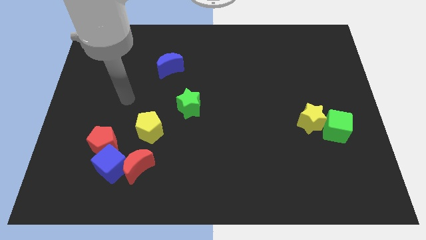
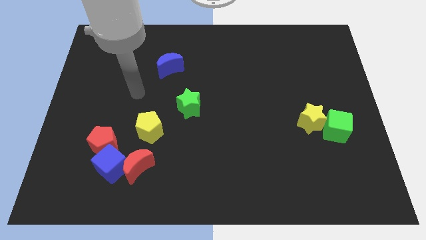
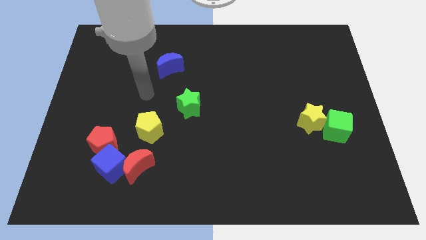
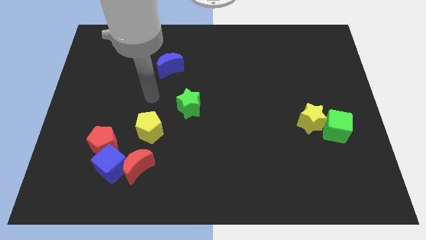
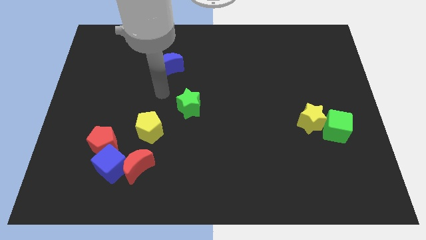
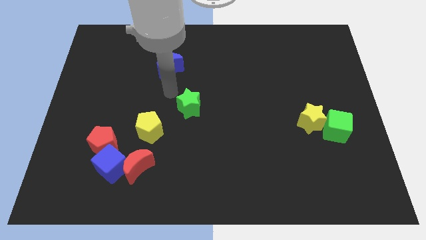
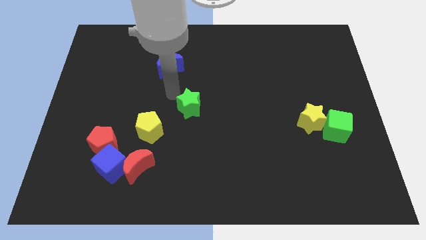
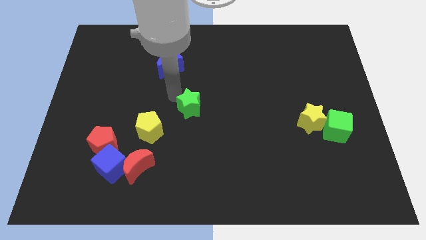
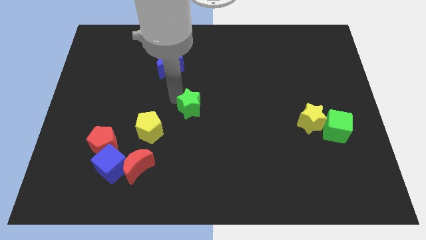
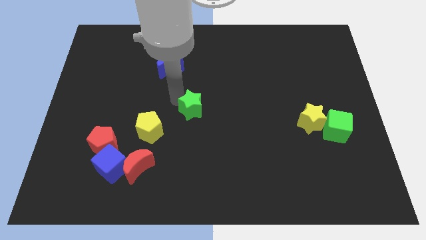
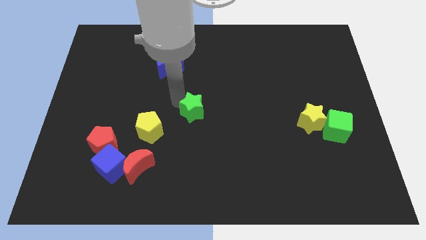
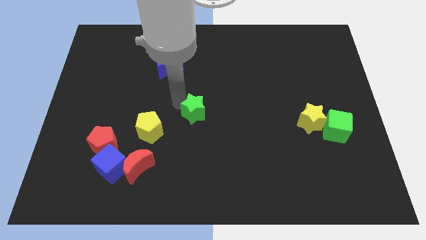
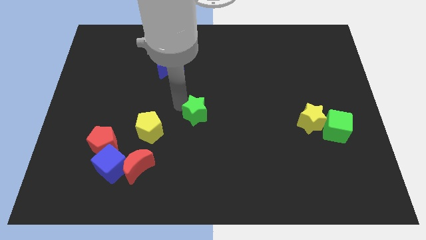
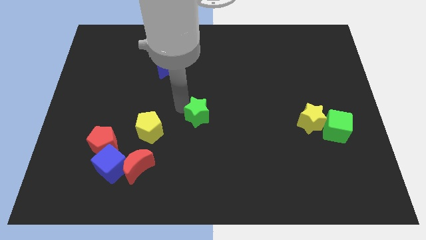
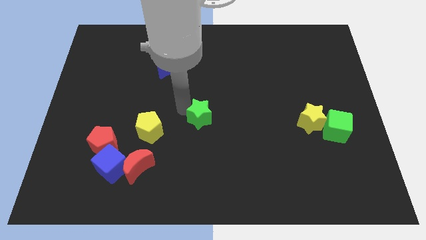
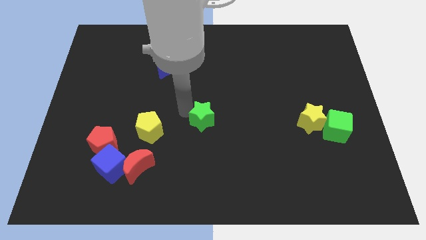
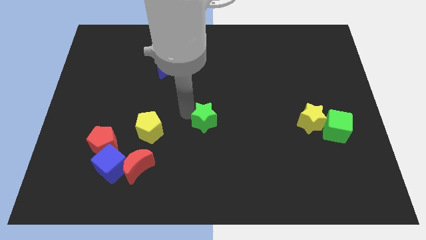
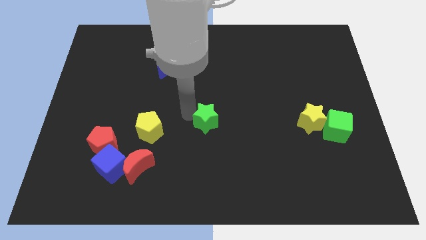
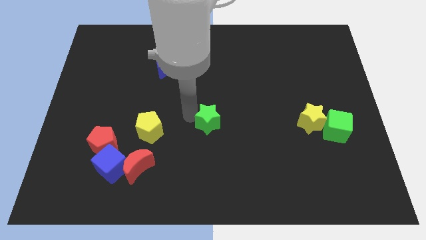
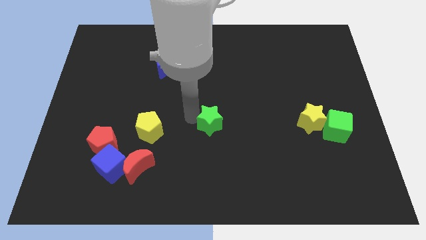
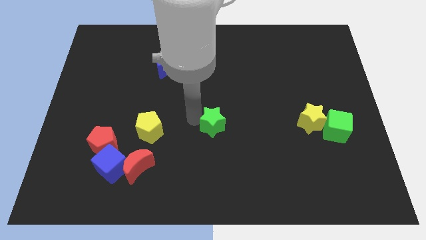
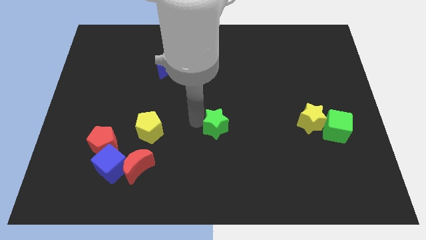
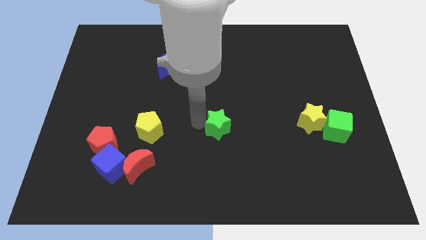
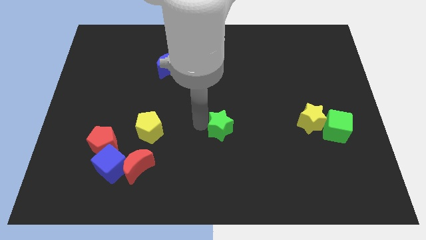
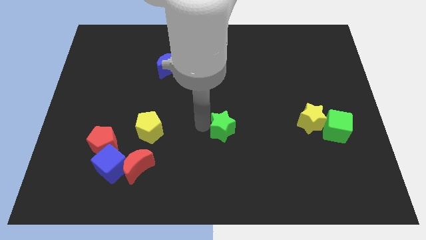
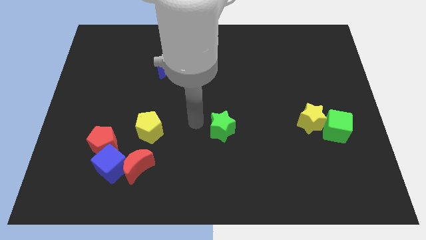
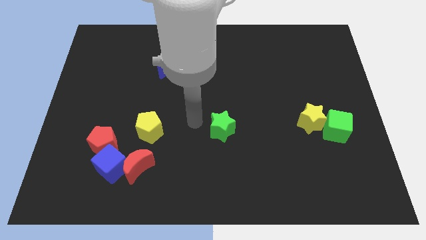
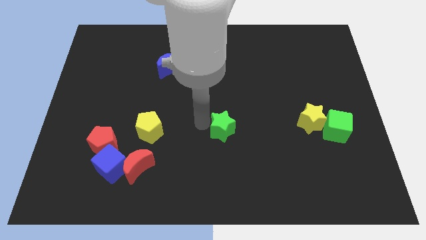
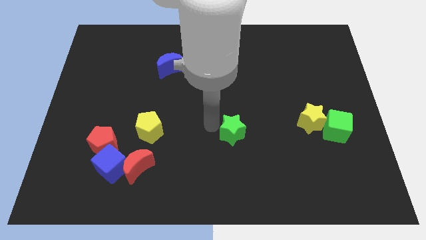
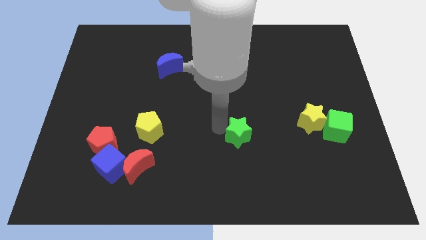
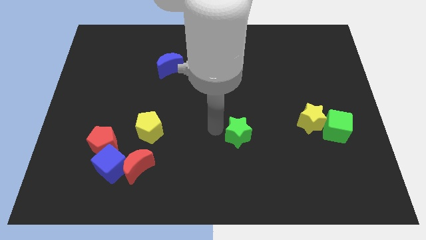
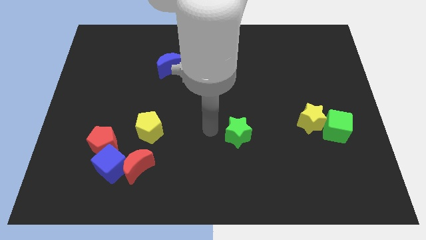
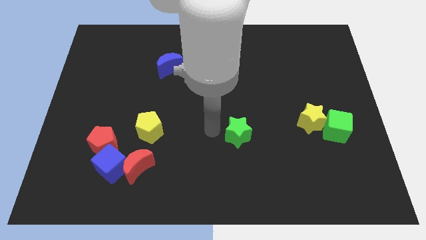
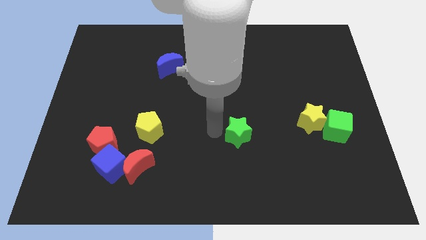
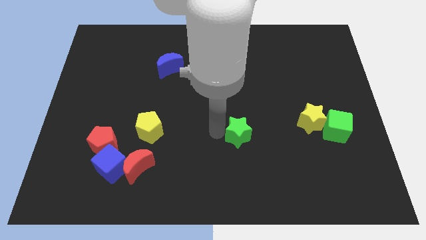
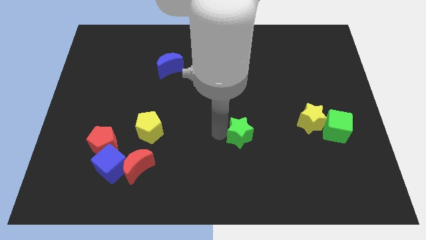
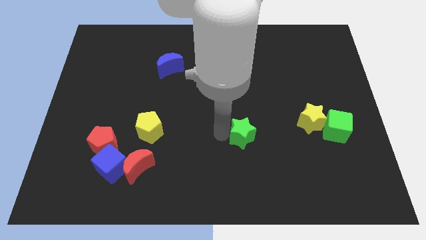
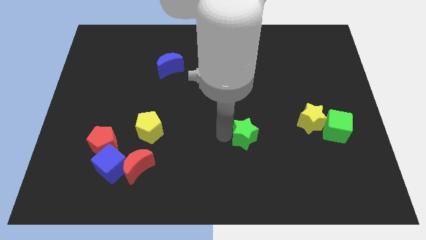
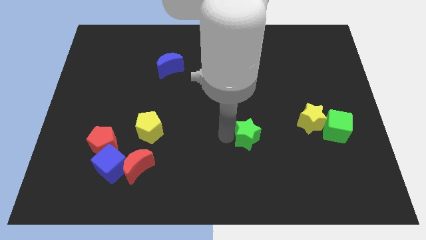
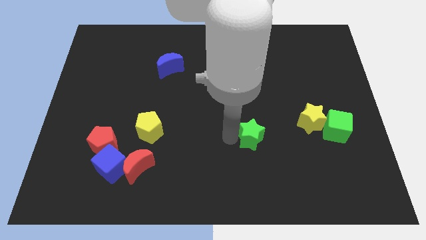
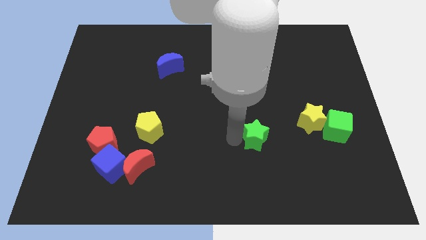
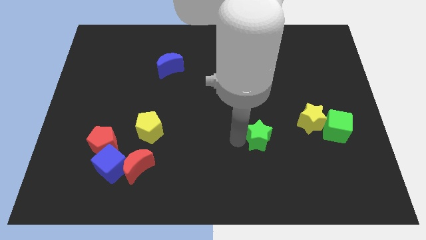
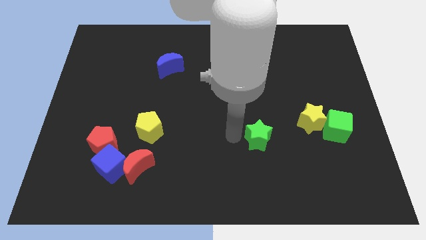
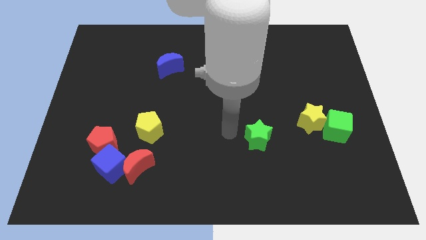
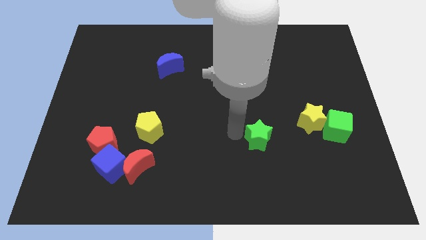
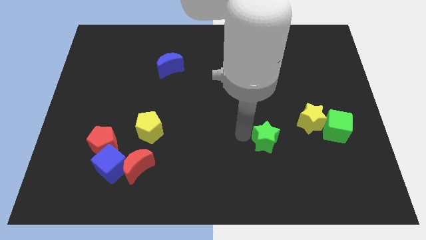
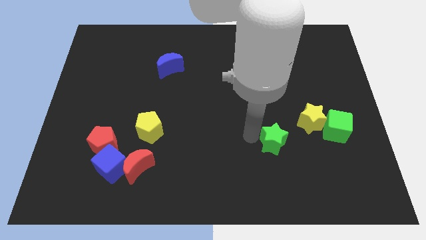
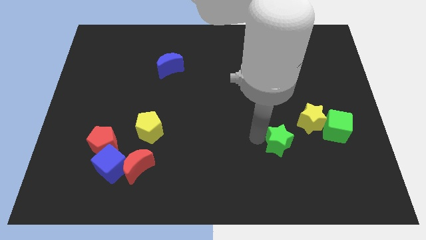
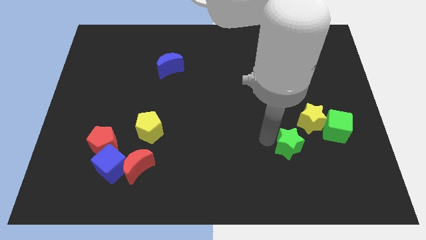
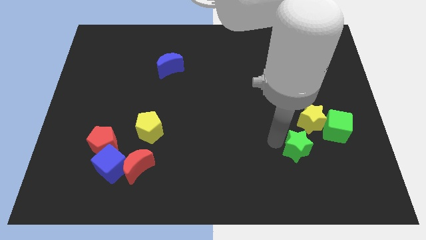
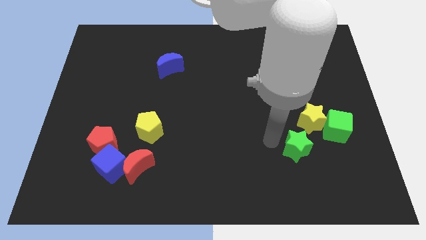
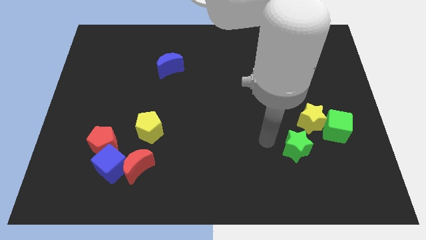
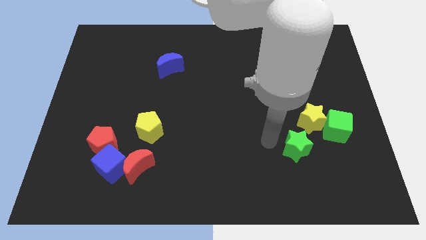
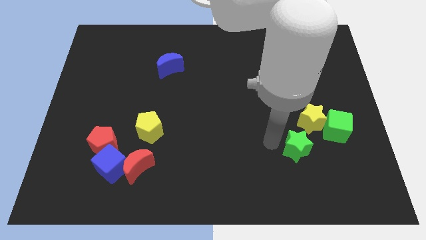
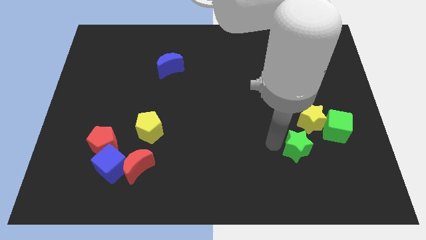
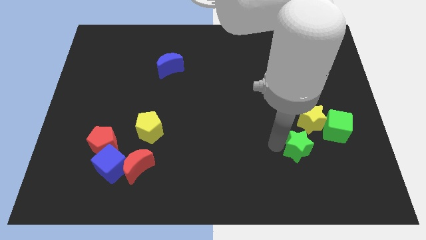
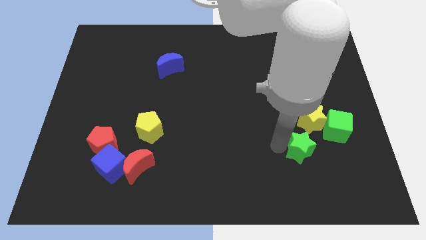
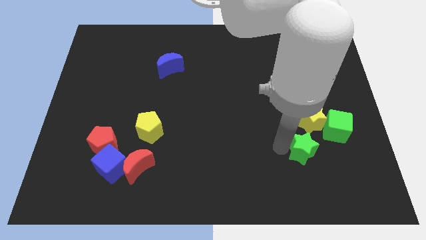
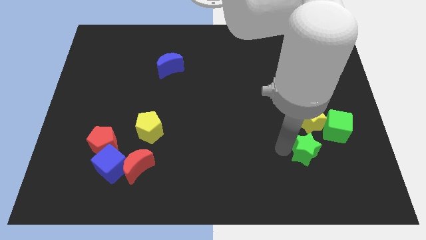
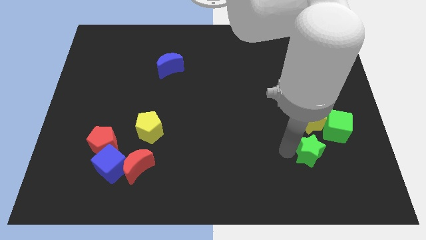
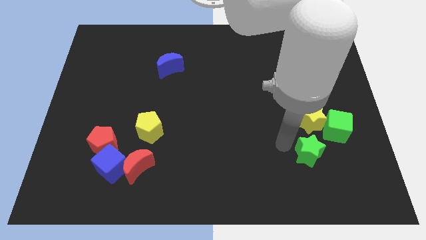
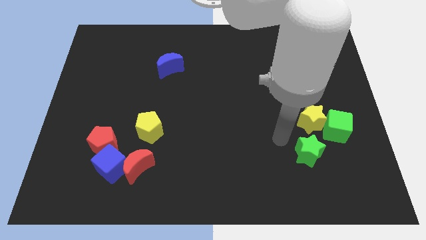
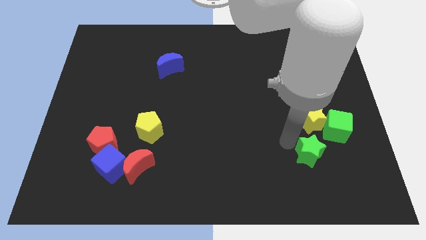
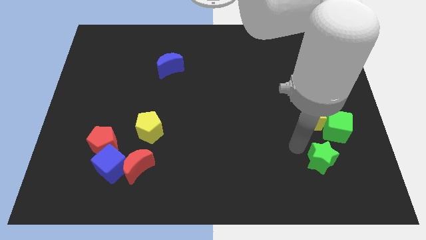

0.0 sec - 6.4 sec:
put the green star to the bottom of the green cube

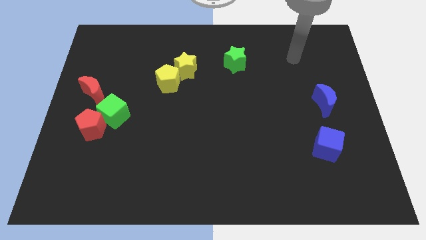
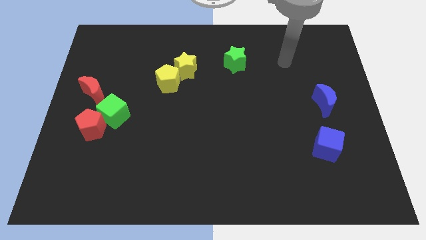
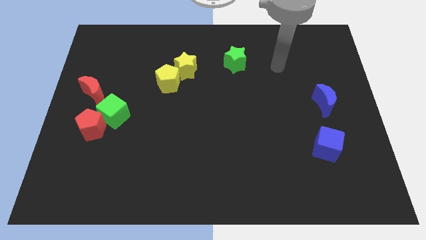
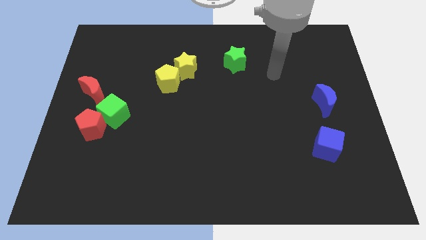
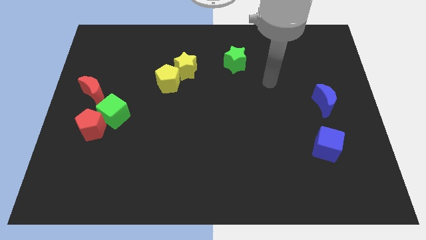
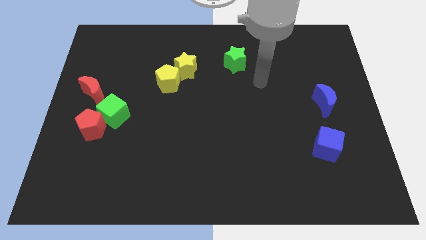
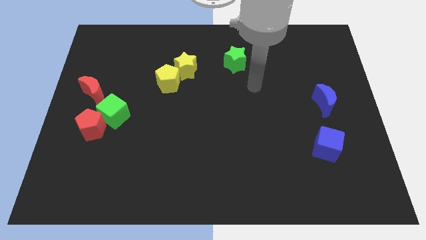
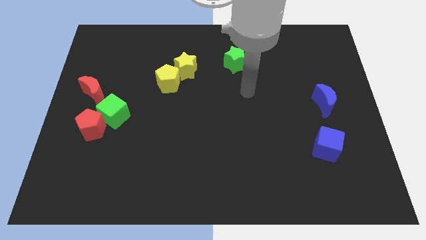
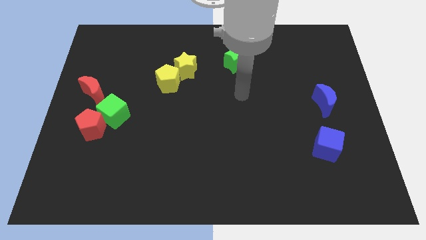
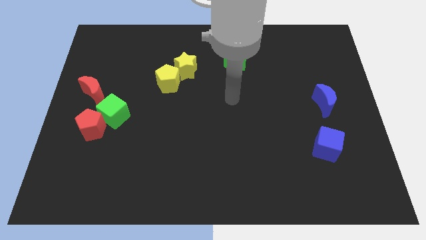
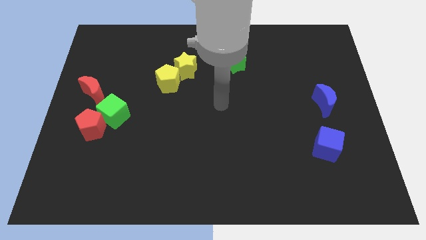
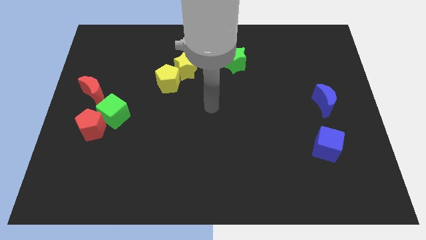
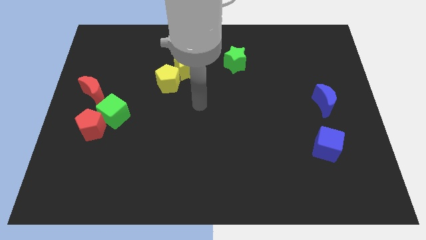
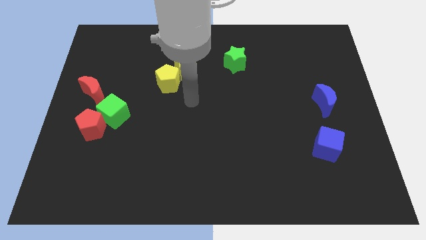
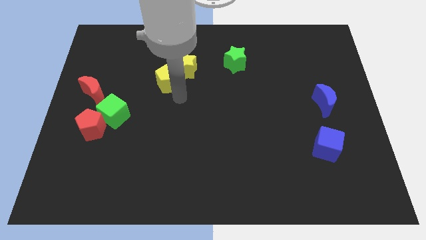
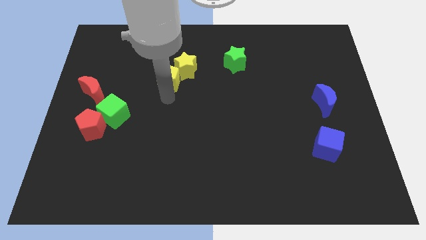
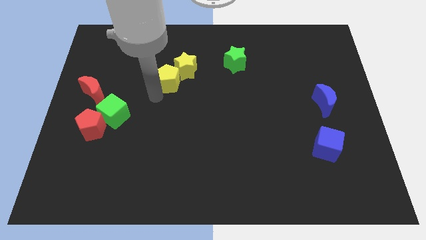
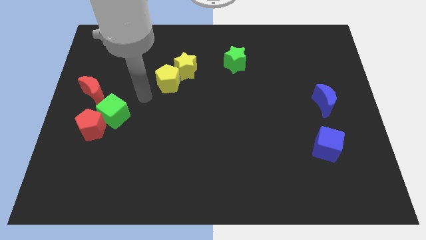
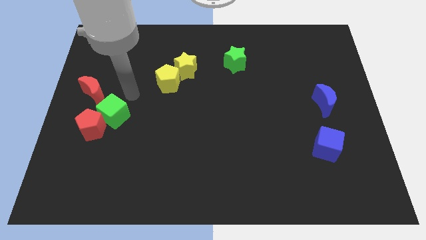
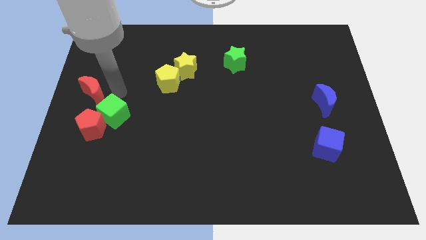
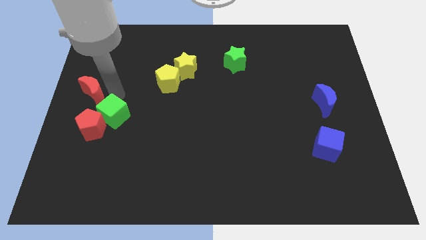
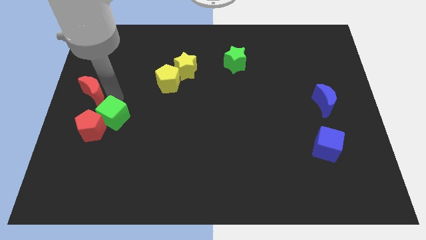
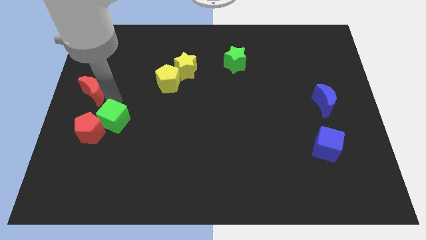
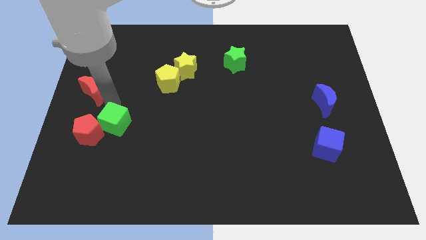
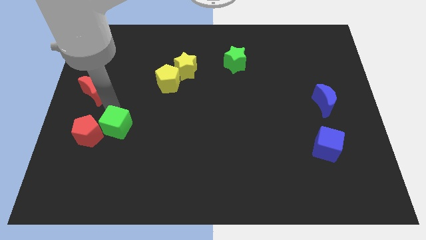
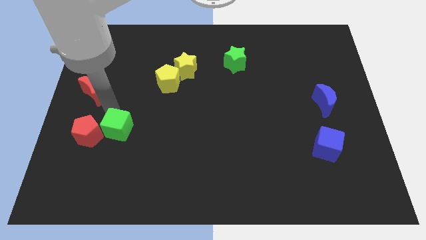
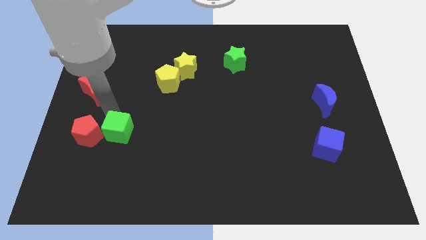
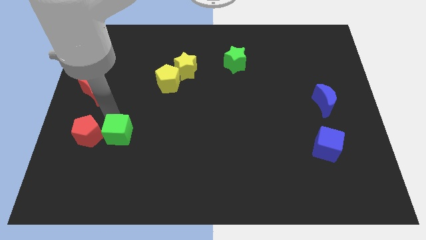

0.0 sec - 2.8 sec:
move the green cube diagonally down and to the right of the red pentagon
